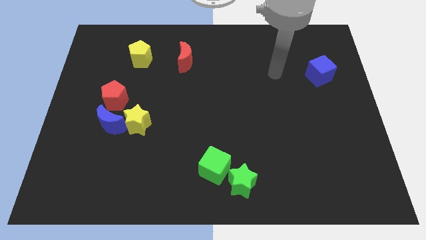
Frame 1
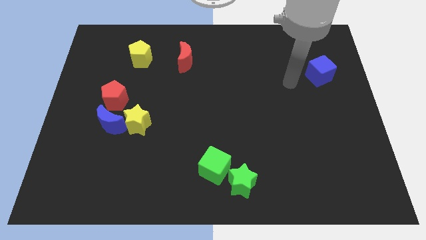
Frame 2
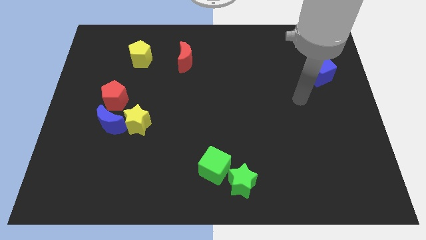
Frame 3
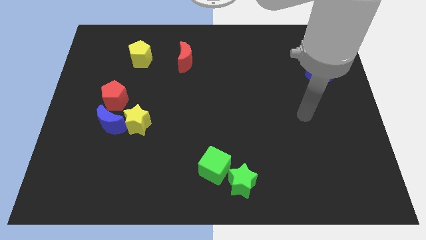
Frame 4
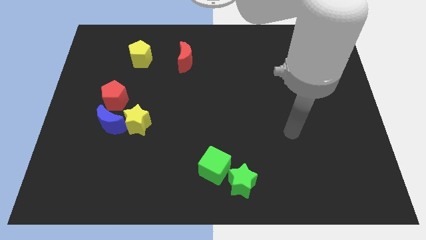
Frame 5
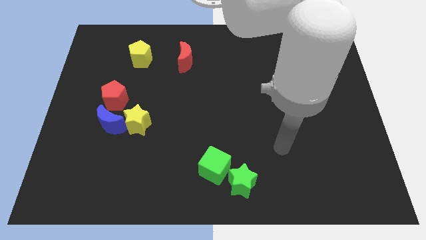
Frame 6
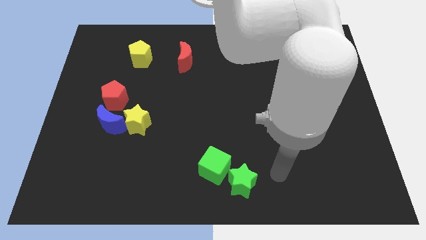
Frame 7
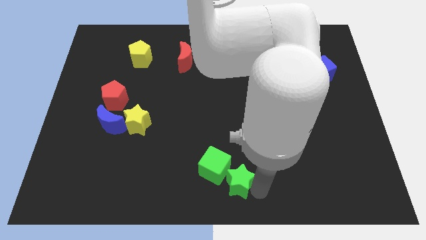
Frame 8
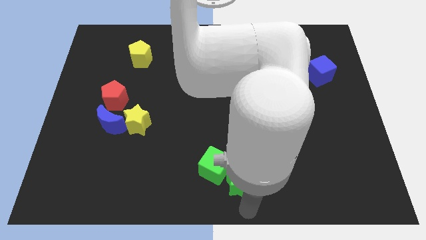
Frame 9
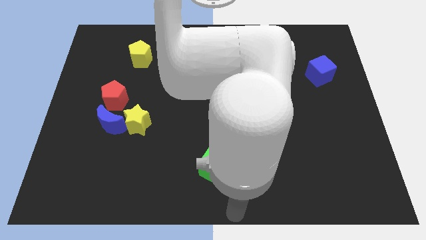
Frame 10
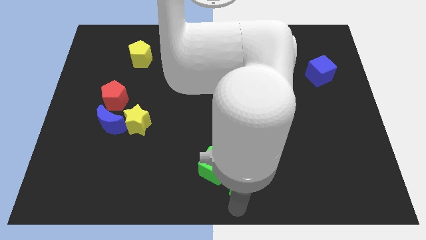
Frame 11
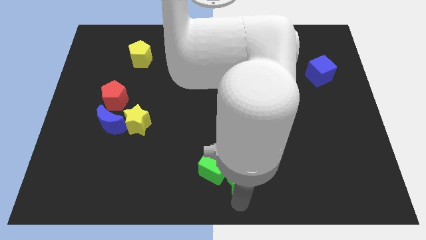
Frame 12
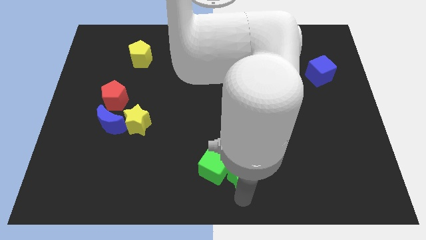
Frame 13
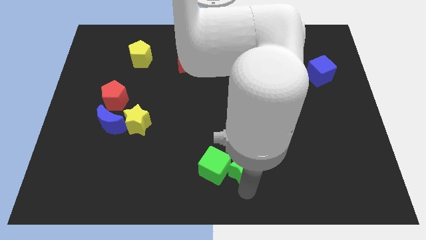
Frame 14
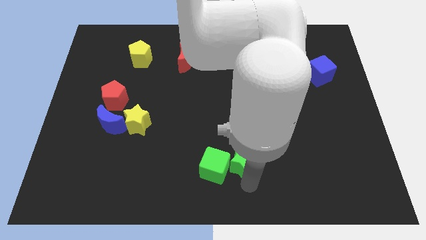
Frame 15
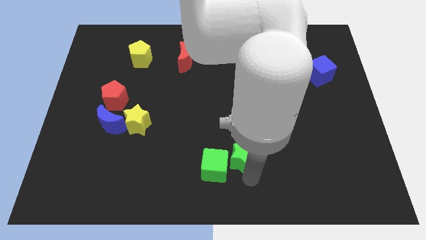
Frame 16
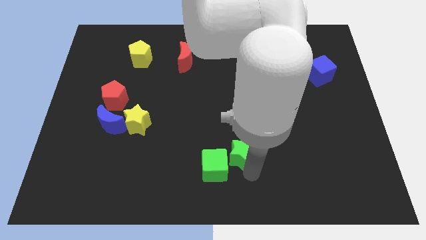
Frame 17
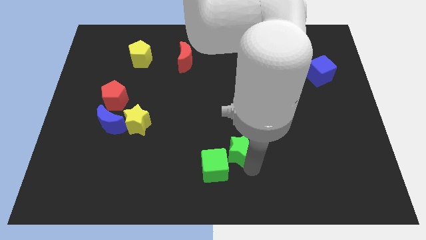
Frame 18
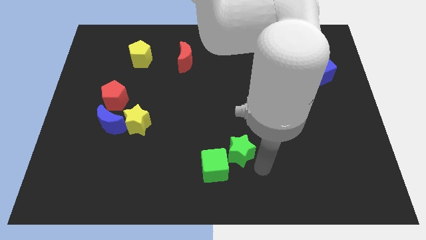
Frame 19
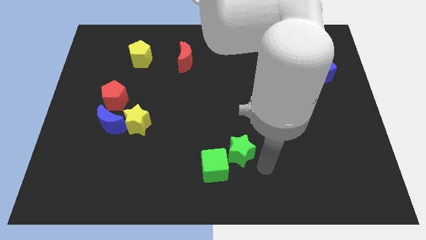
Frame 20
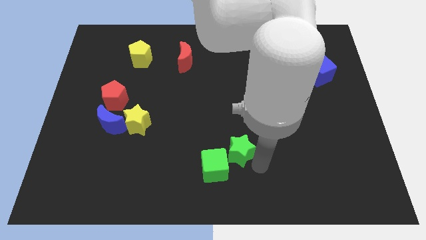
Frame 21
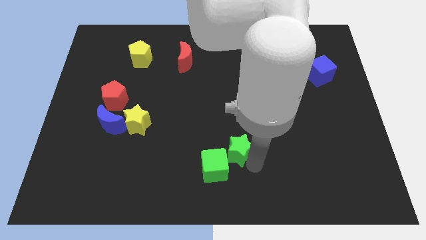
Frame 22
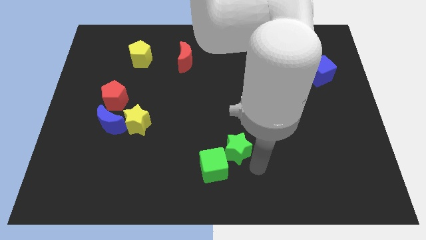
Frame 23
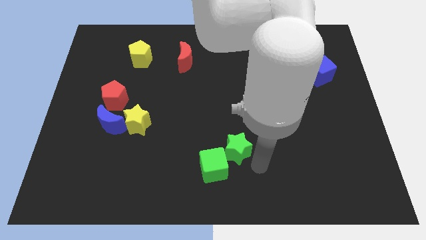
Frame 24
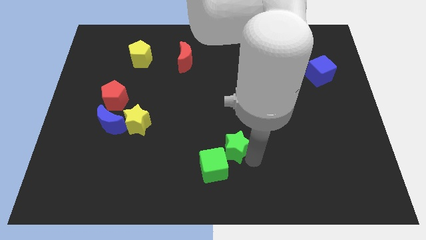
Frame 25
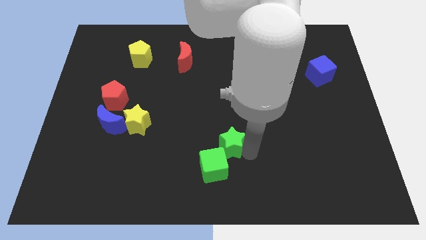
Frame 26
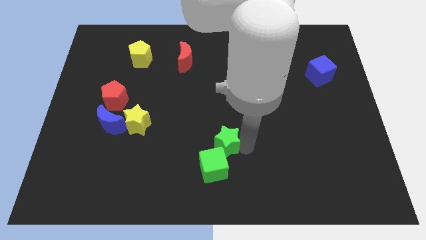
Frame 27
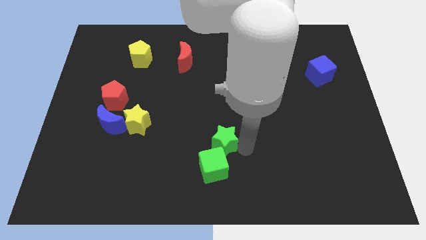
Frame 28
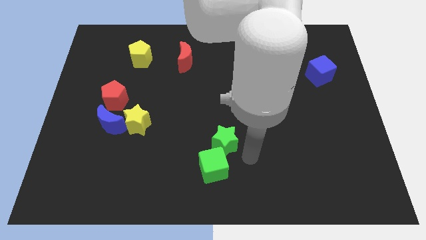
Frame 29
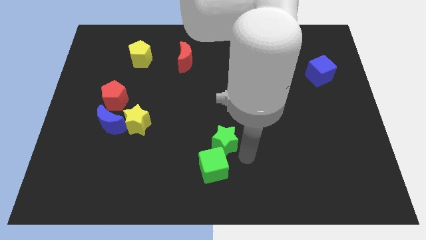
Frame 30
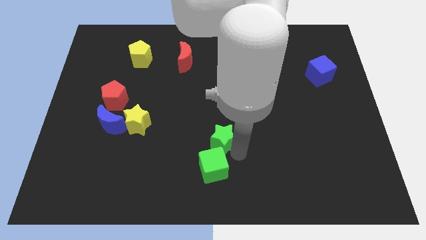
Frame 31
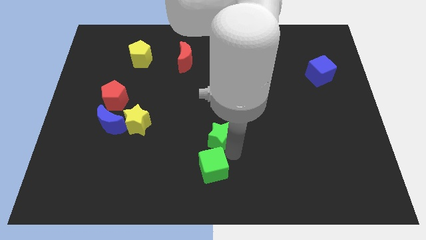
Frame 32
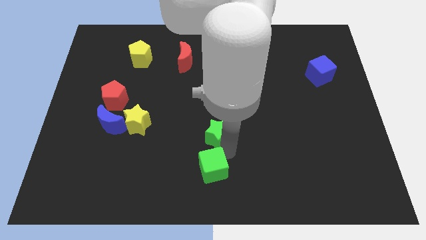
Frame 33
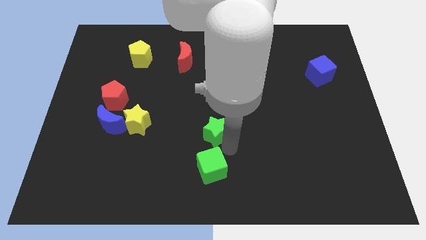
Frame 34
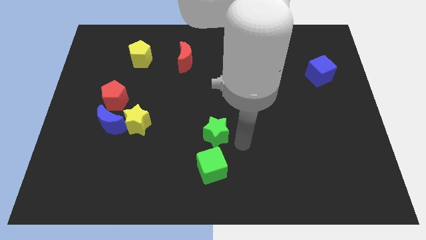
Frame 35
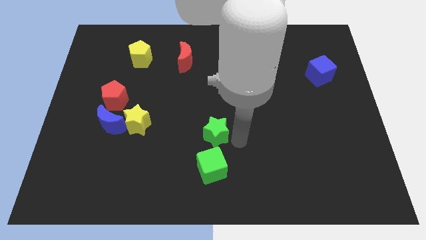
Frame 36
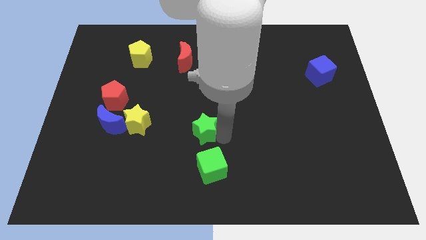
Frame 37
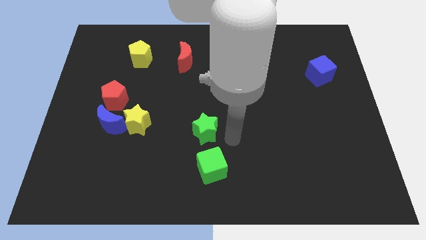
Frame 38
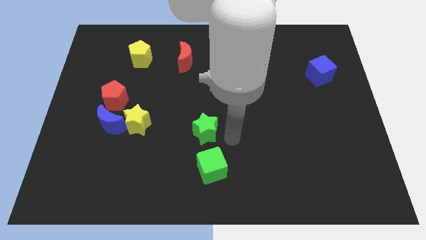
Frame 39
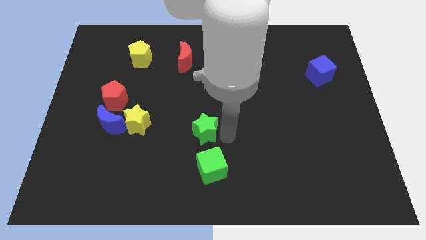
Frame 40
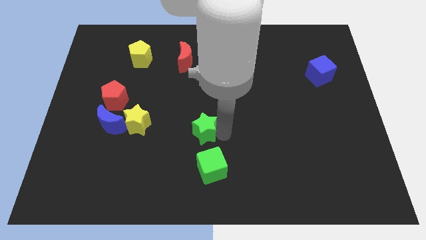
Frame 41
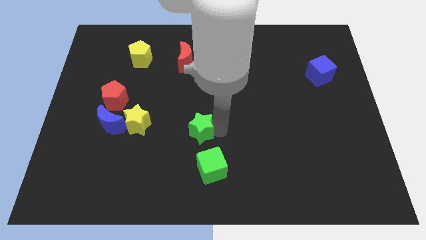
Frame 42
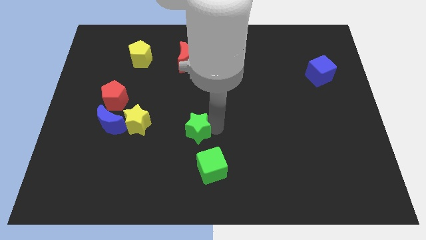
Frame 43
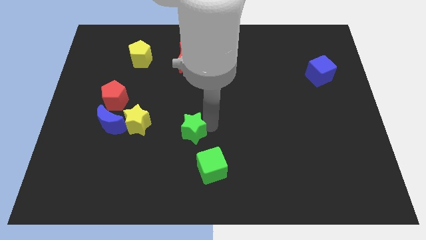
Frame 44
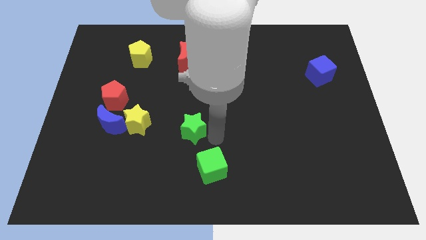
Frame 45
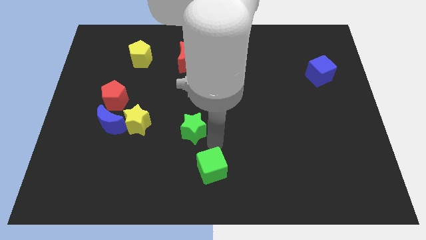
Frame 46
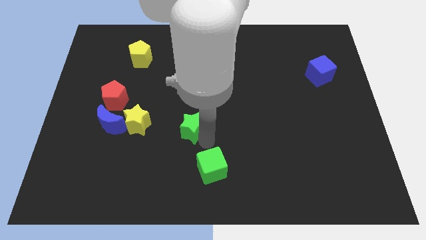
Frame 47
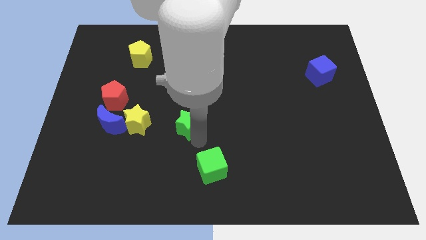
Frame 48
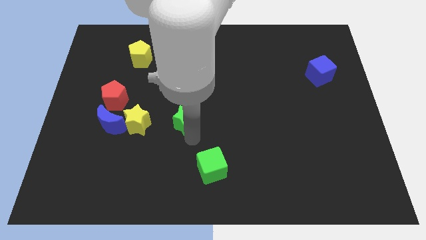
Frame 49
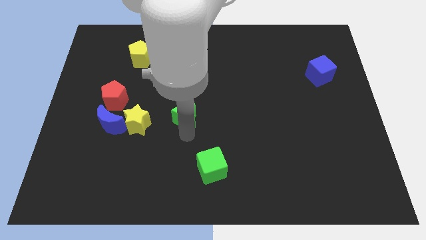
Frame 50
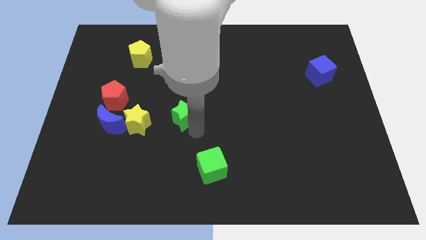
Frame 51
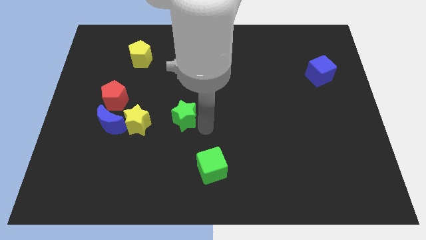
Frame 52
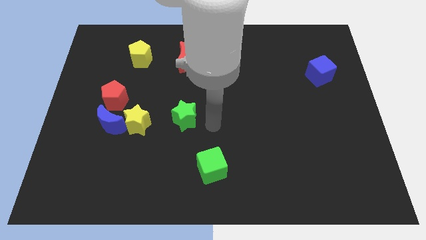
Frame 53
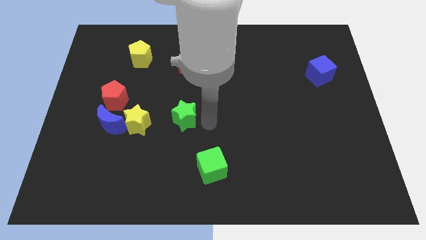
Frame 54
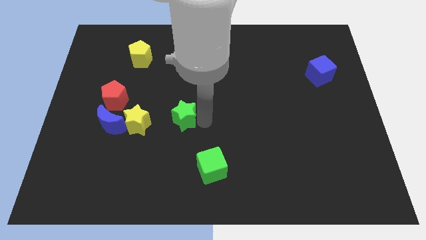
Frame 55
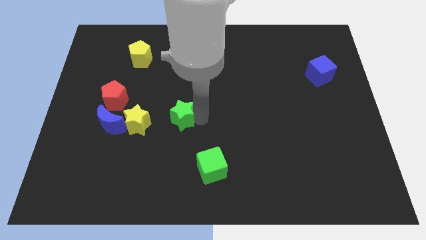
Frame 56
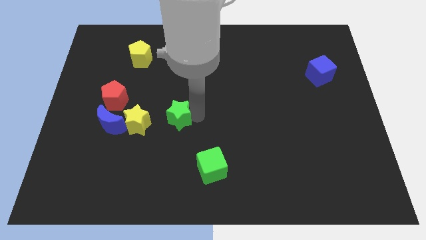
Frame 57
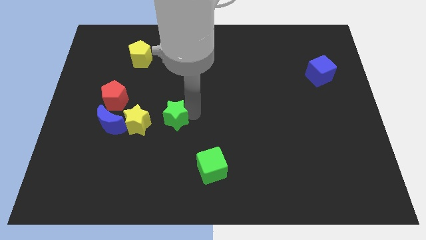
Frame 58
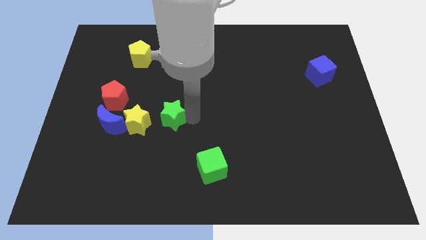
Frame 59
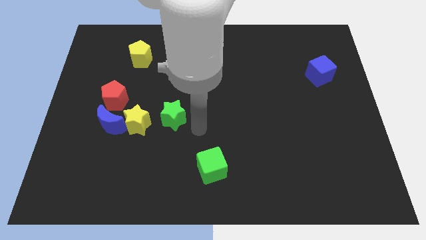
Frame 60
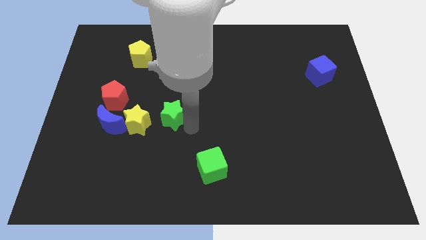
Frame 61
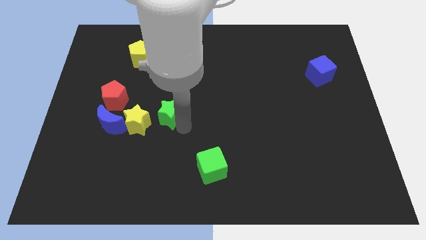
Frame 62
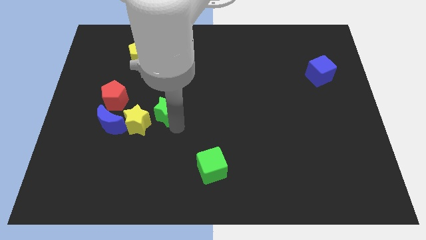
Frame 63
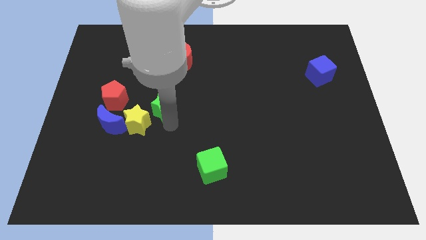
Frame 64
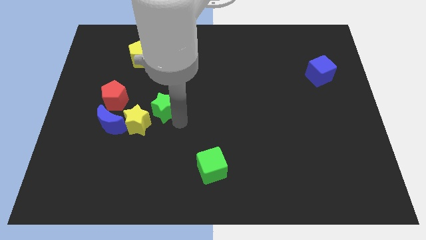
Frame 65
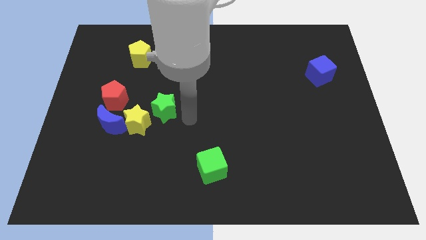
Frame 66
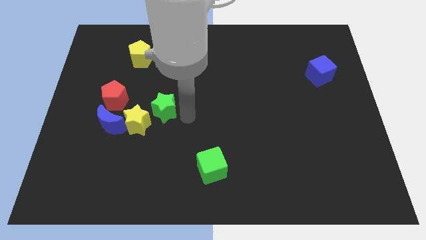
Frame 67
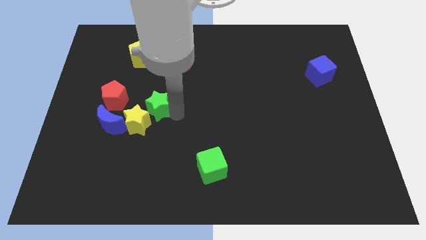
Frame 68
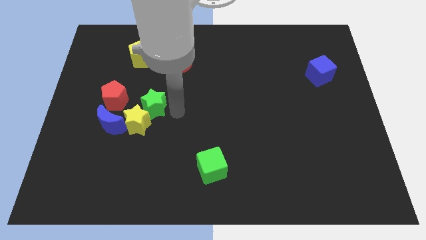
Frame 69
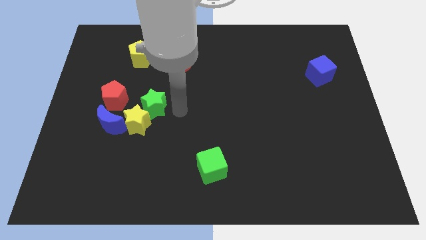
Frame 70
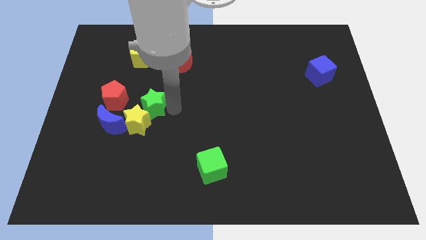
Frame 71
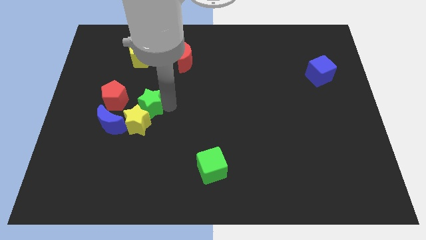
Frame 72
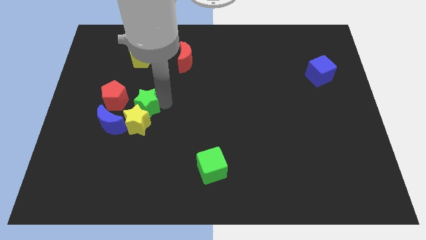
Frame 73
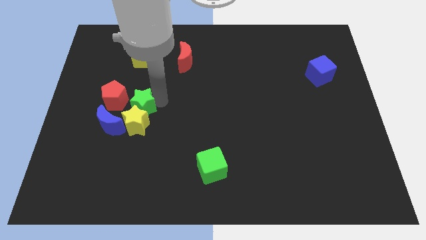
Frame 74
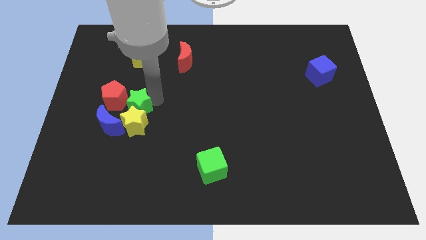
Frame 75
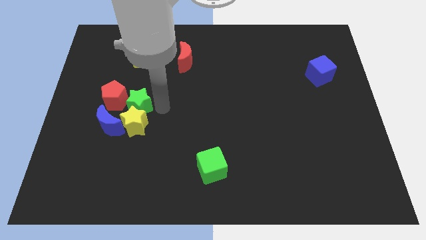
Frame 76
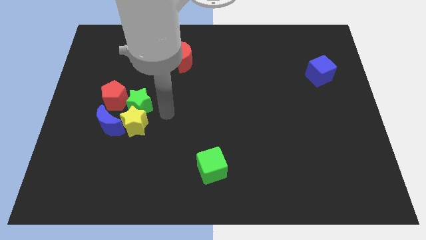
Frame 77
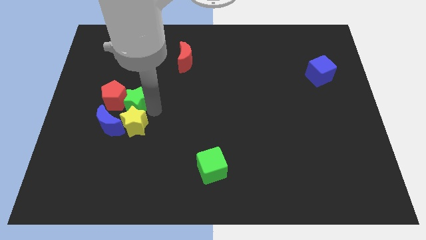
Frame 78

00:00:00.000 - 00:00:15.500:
put the green star towards the red pentagon
